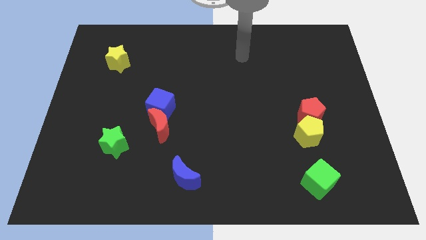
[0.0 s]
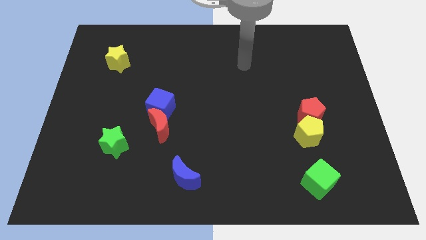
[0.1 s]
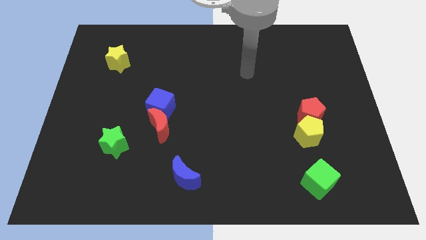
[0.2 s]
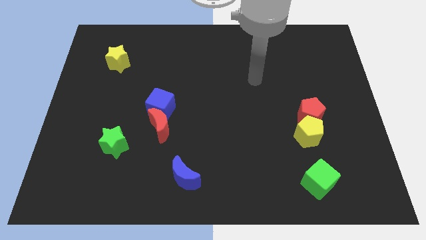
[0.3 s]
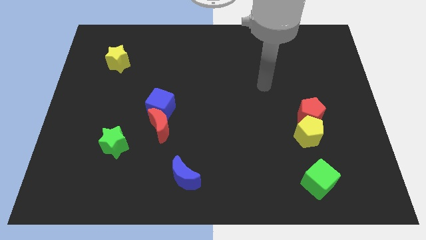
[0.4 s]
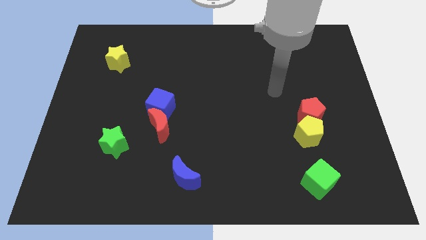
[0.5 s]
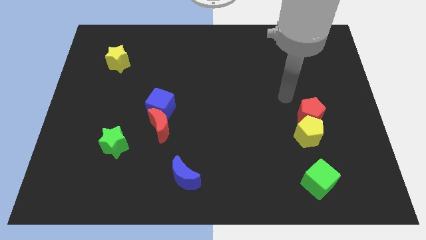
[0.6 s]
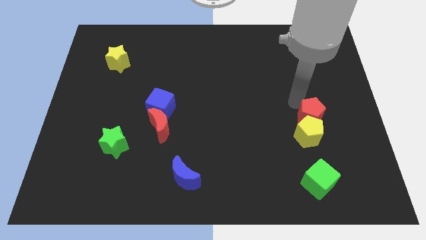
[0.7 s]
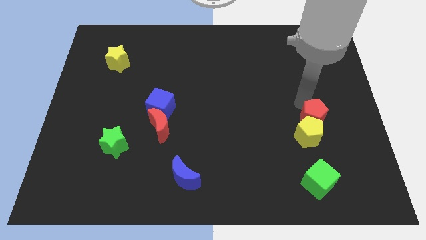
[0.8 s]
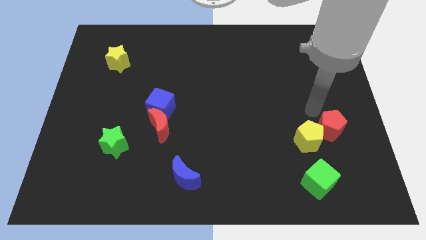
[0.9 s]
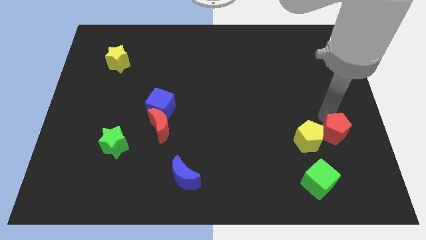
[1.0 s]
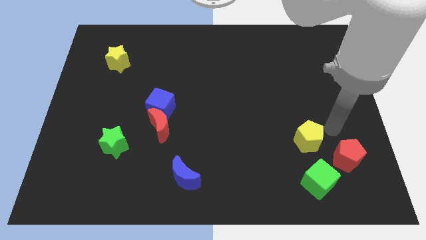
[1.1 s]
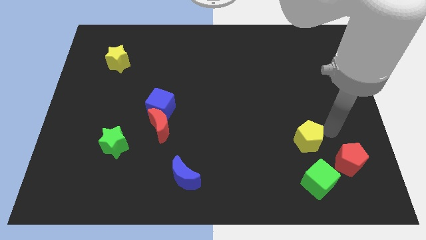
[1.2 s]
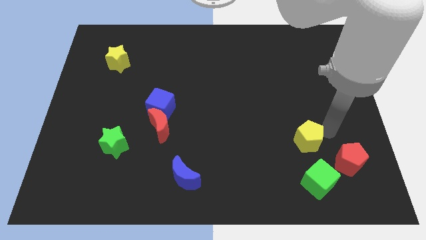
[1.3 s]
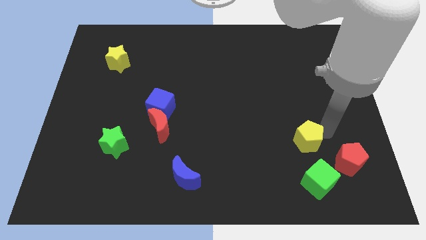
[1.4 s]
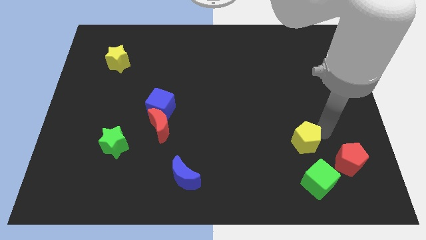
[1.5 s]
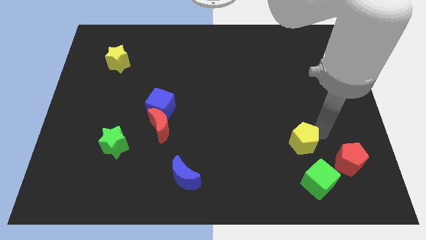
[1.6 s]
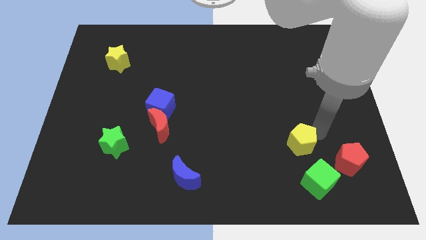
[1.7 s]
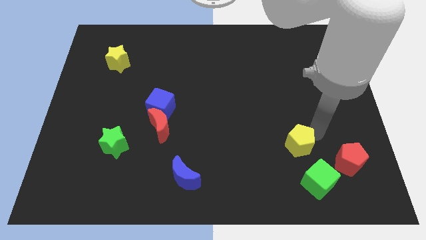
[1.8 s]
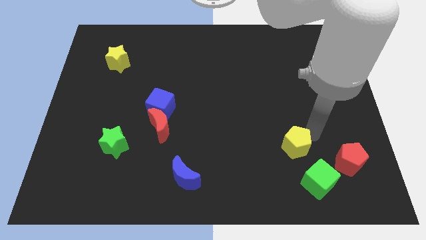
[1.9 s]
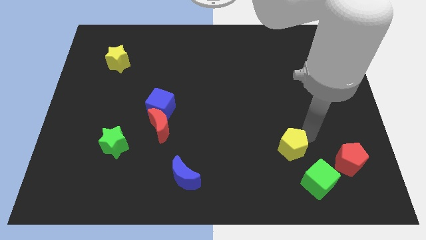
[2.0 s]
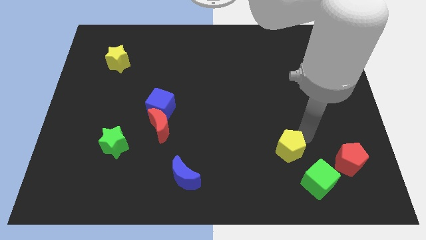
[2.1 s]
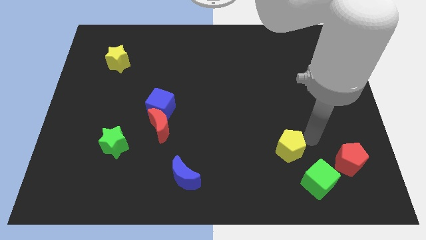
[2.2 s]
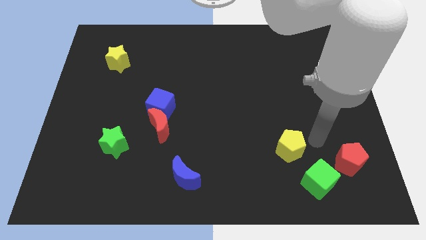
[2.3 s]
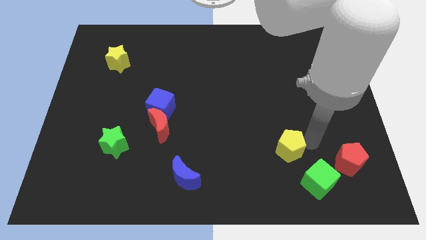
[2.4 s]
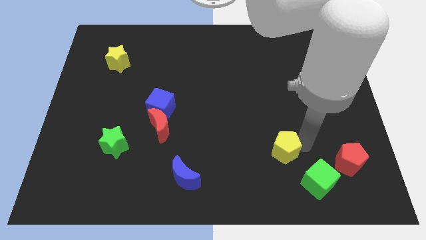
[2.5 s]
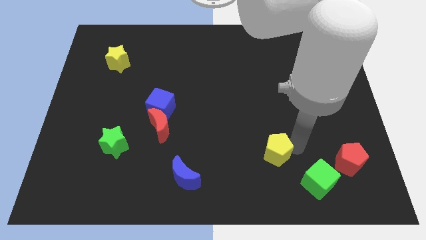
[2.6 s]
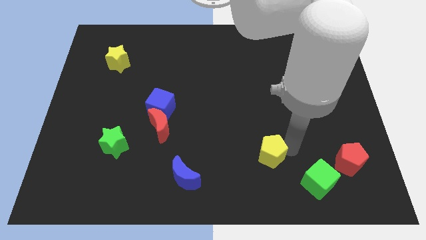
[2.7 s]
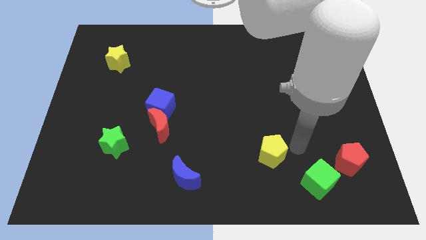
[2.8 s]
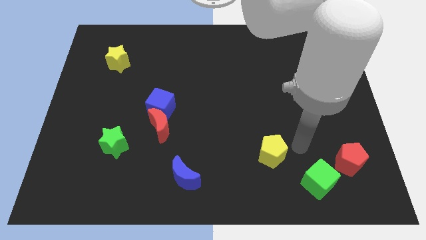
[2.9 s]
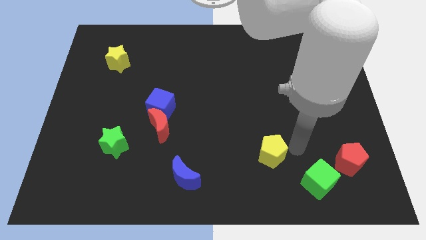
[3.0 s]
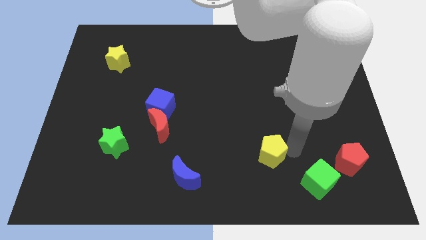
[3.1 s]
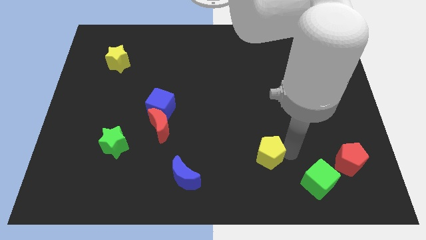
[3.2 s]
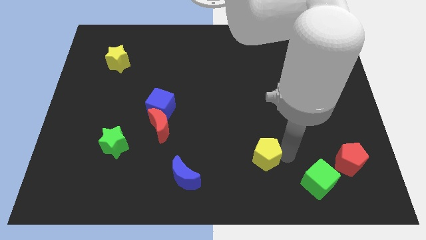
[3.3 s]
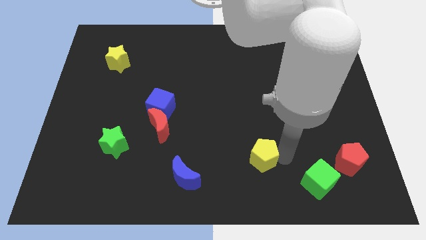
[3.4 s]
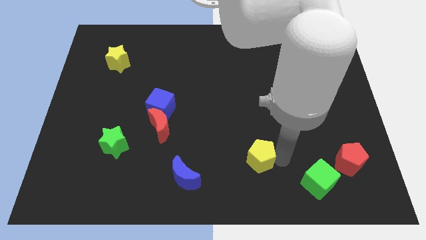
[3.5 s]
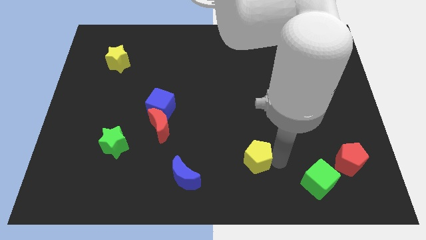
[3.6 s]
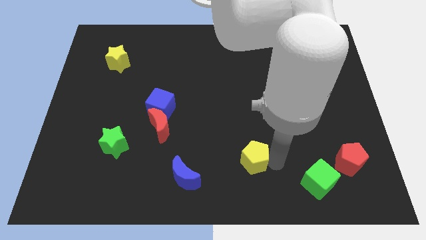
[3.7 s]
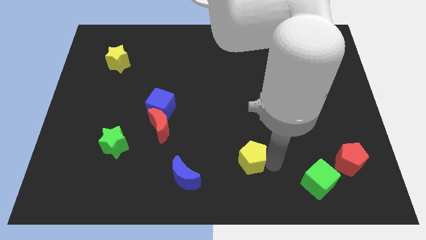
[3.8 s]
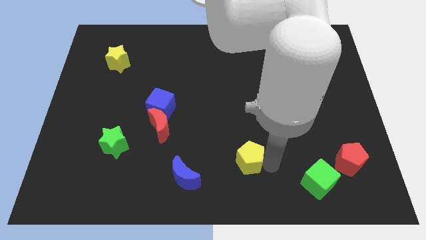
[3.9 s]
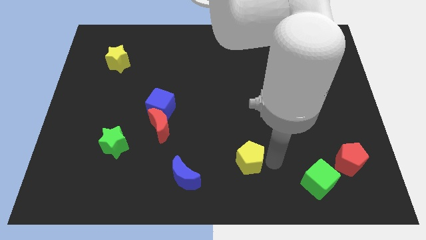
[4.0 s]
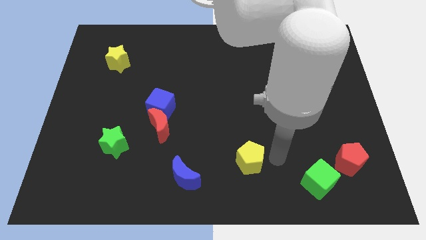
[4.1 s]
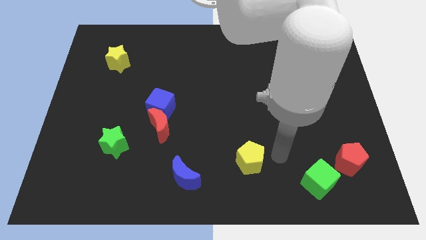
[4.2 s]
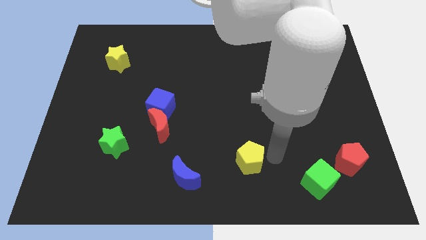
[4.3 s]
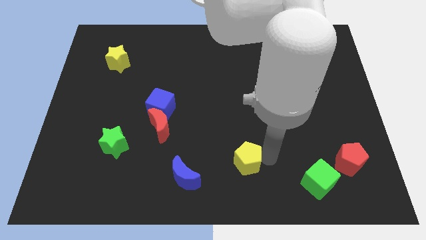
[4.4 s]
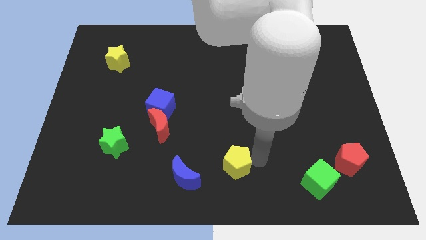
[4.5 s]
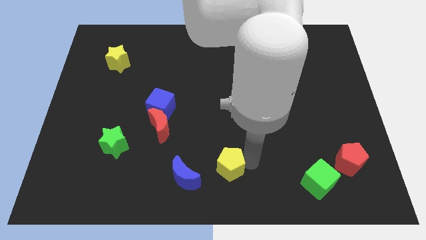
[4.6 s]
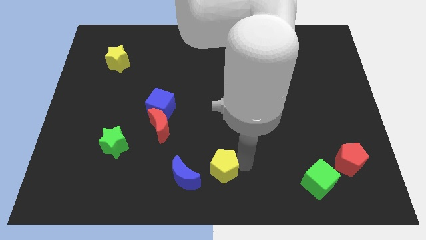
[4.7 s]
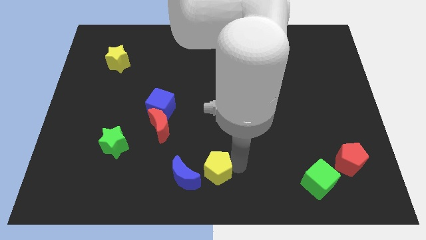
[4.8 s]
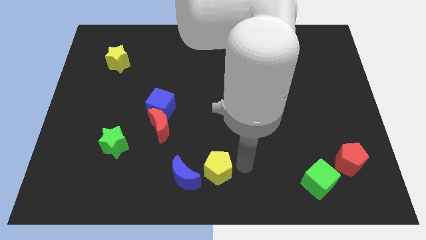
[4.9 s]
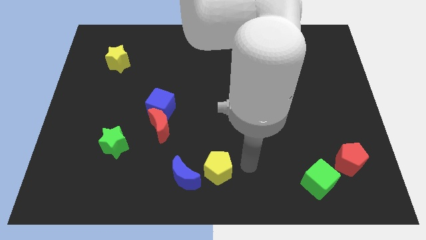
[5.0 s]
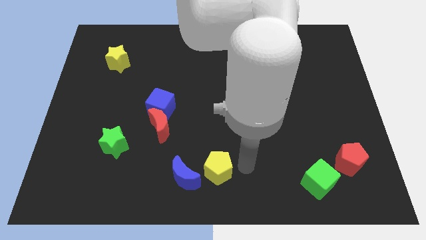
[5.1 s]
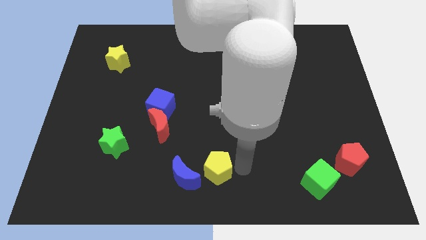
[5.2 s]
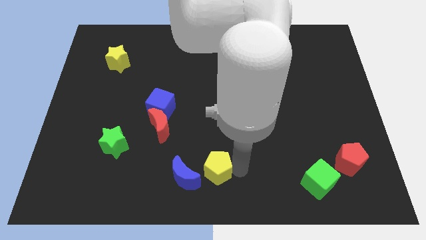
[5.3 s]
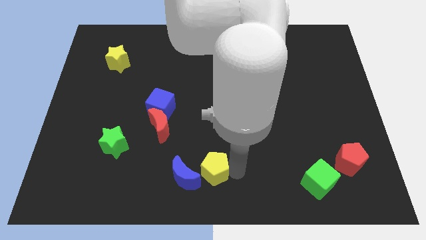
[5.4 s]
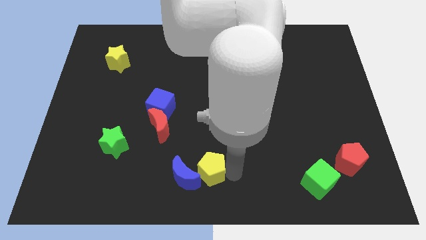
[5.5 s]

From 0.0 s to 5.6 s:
put the yellow pentagon towards the blue moon

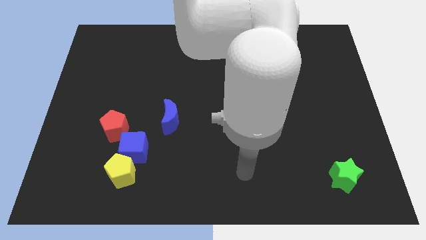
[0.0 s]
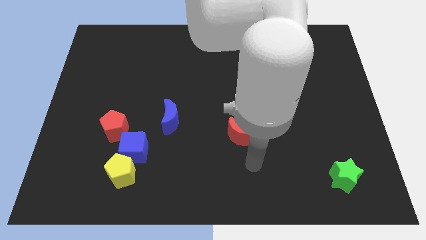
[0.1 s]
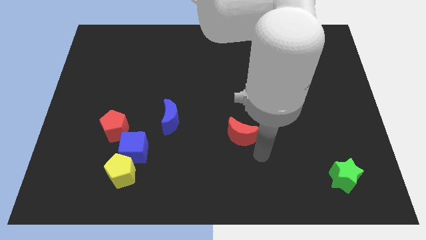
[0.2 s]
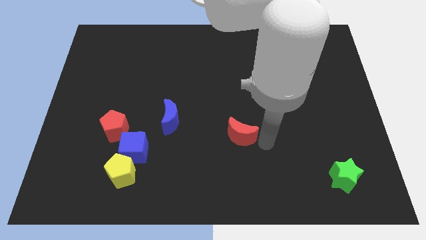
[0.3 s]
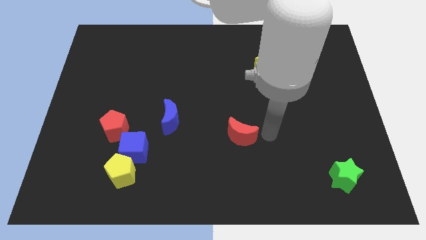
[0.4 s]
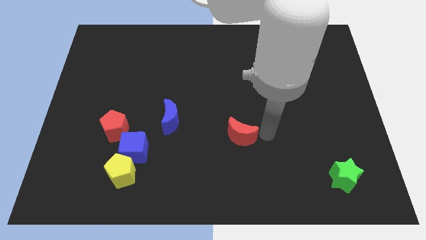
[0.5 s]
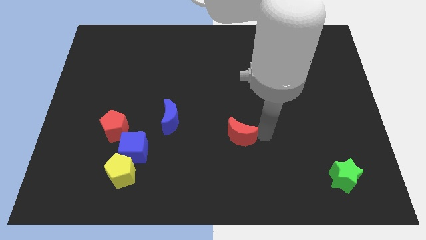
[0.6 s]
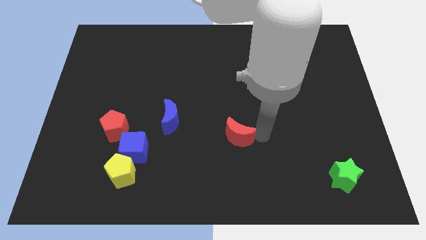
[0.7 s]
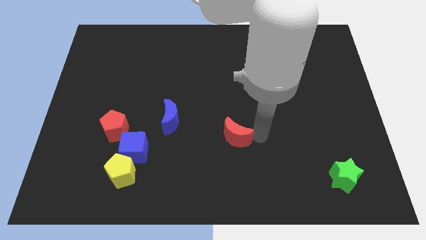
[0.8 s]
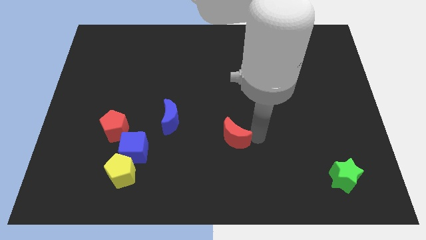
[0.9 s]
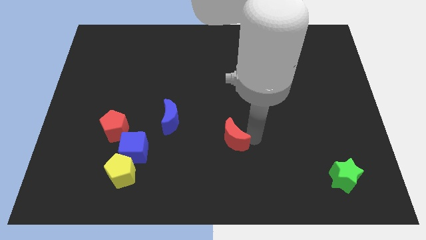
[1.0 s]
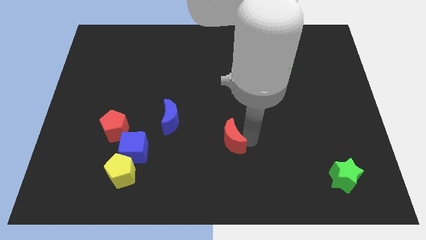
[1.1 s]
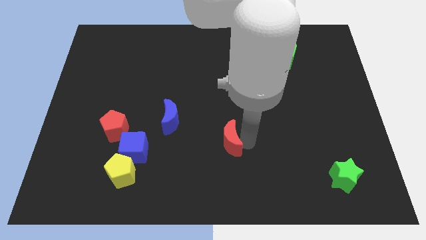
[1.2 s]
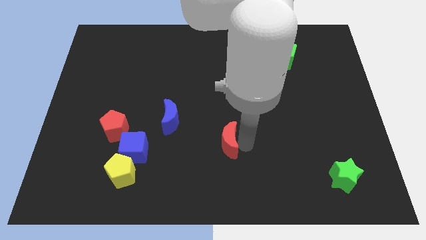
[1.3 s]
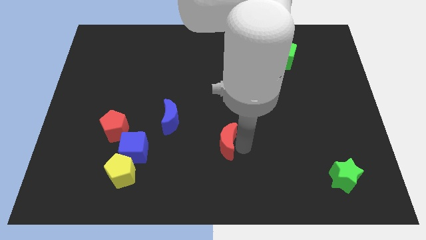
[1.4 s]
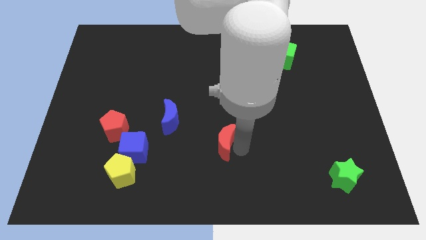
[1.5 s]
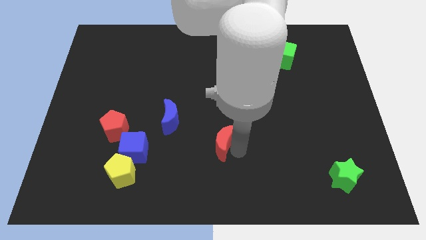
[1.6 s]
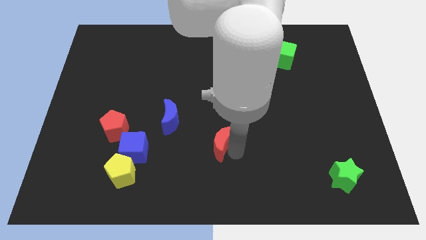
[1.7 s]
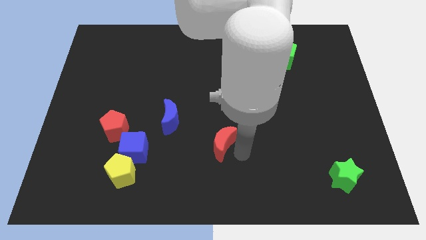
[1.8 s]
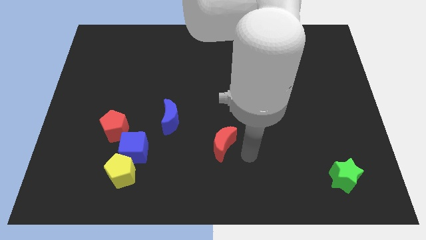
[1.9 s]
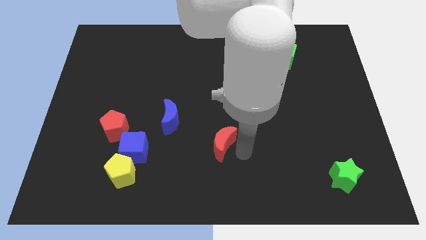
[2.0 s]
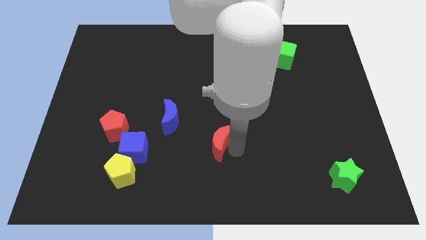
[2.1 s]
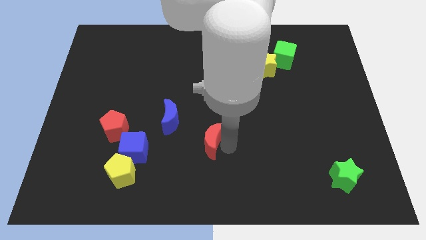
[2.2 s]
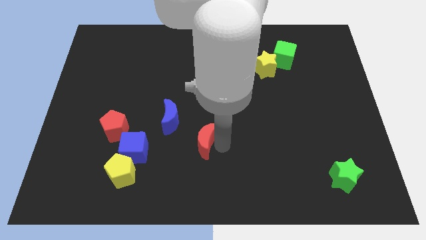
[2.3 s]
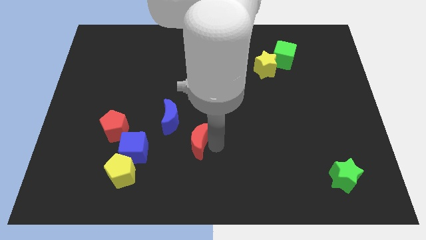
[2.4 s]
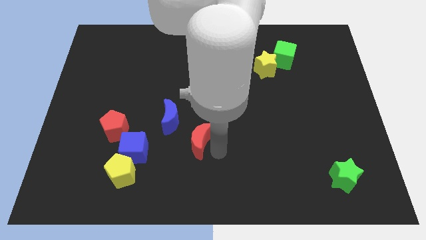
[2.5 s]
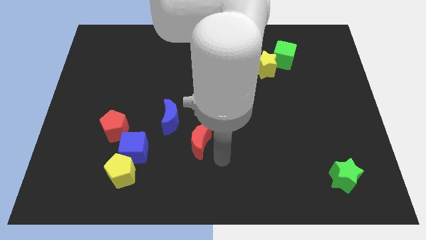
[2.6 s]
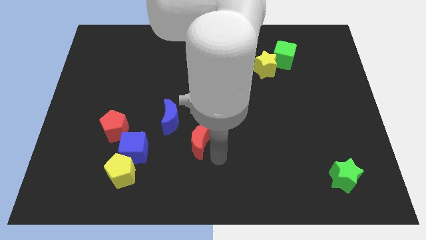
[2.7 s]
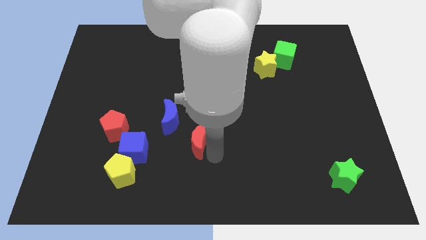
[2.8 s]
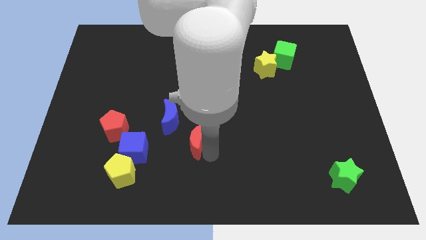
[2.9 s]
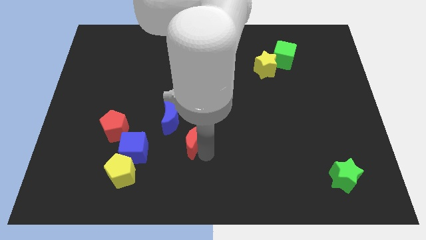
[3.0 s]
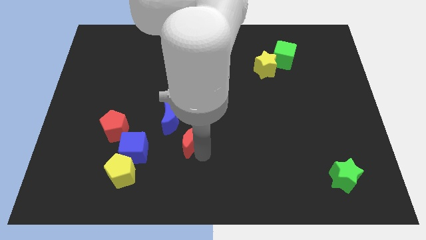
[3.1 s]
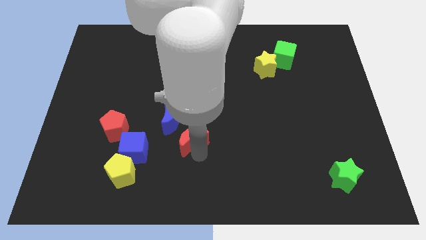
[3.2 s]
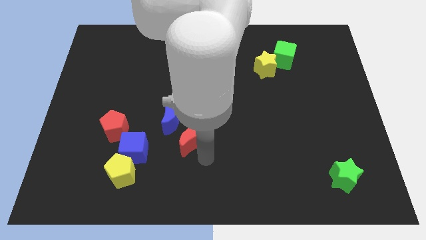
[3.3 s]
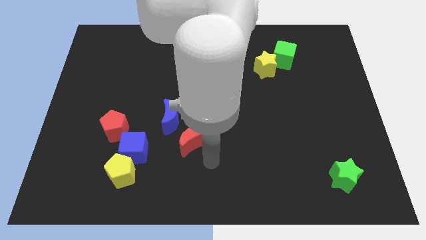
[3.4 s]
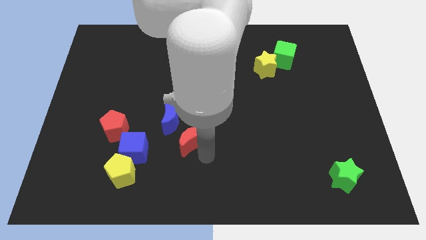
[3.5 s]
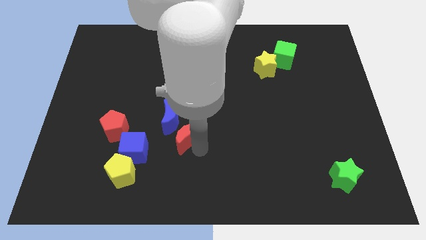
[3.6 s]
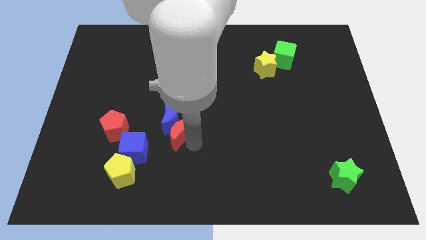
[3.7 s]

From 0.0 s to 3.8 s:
slide the red moon towards the blue moon
